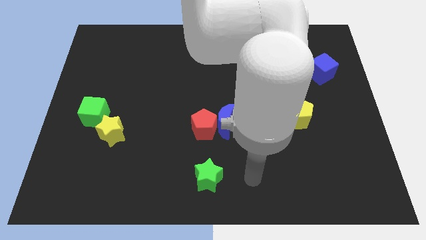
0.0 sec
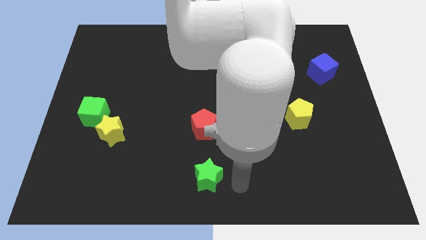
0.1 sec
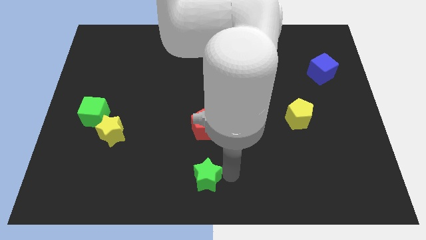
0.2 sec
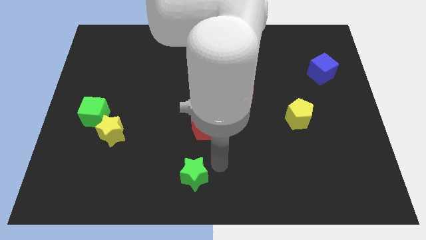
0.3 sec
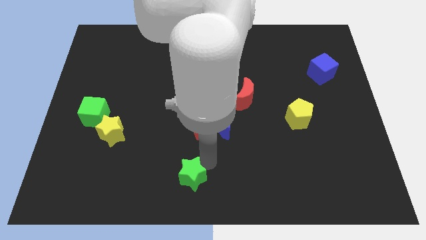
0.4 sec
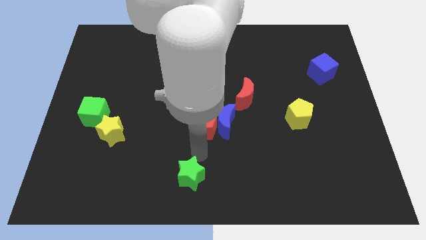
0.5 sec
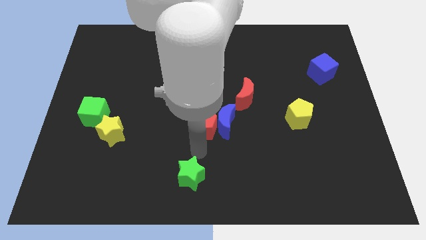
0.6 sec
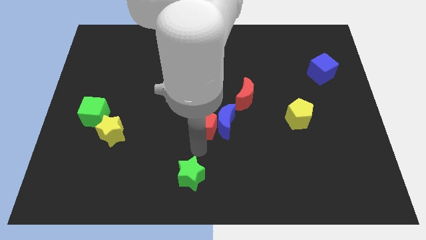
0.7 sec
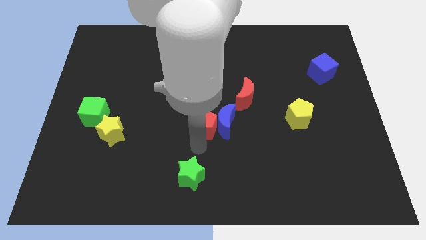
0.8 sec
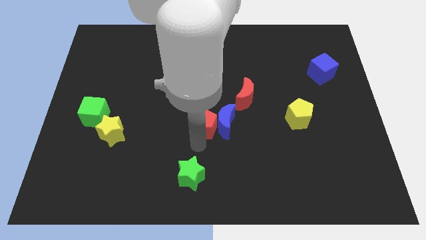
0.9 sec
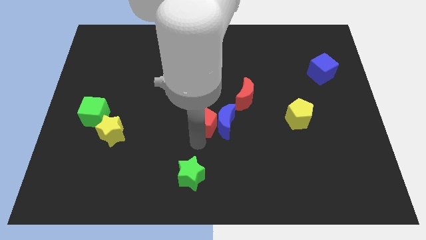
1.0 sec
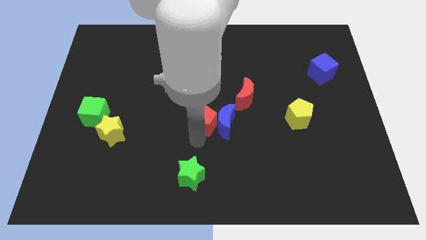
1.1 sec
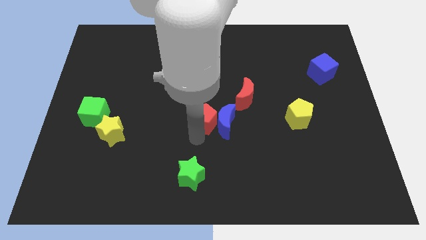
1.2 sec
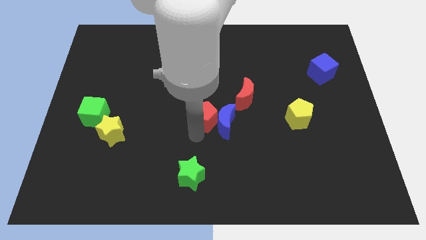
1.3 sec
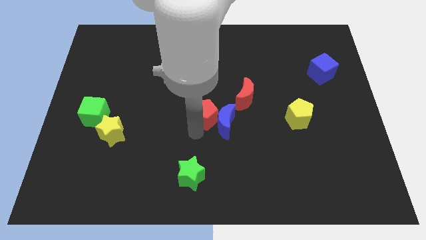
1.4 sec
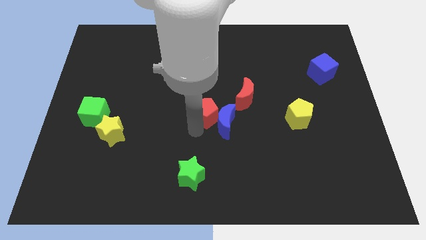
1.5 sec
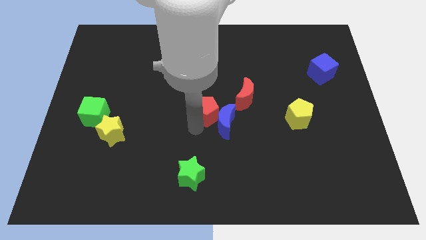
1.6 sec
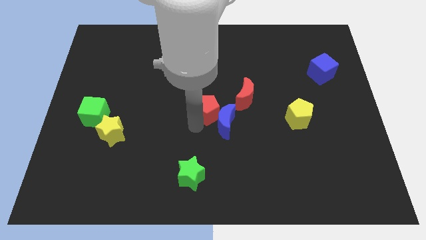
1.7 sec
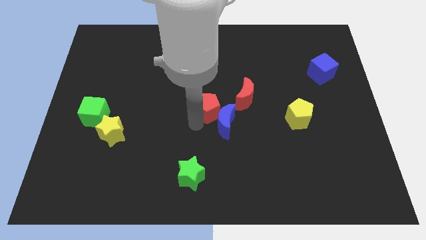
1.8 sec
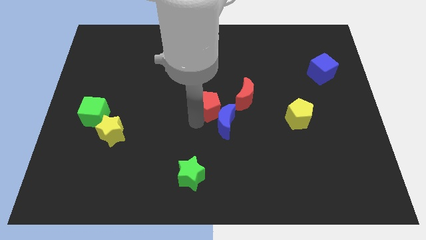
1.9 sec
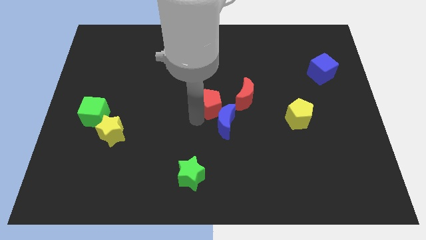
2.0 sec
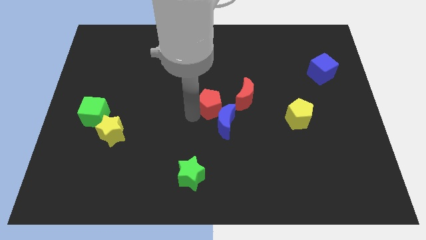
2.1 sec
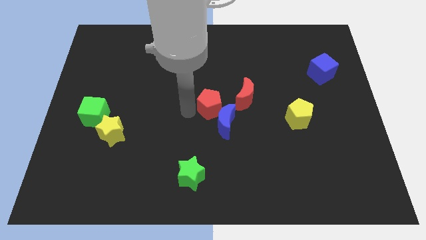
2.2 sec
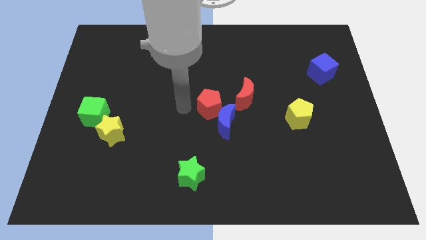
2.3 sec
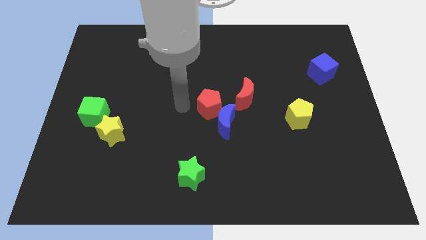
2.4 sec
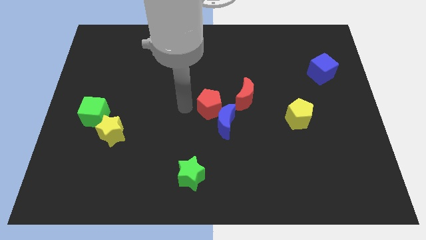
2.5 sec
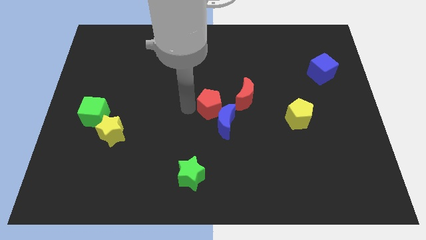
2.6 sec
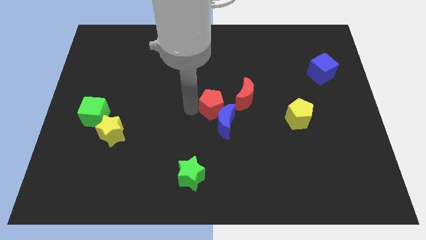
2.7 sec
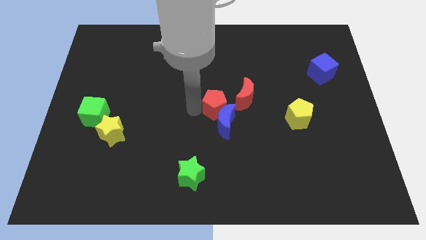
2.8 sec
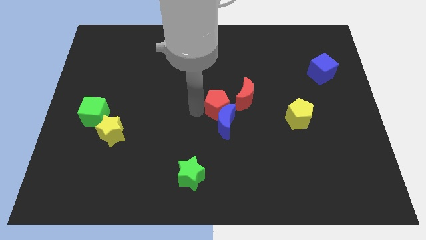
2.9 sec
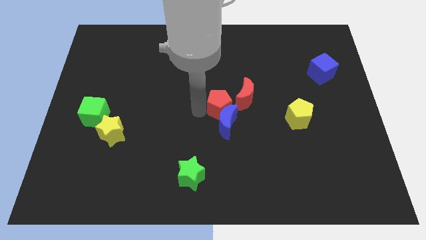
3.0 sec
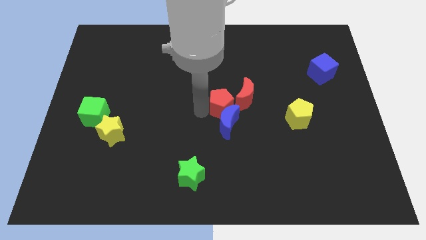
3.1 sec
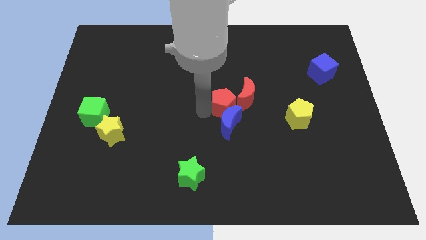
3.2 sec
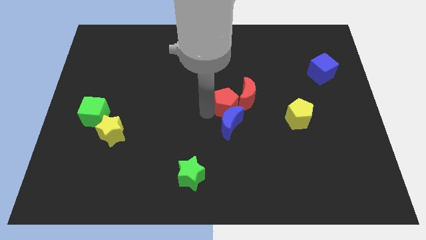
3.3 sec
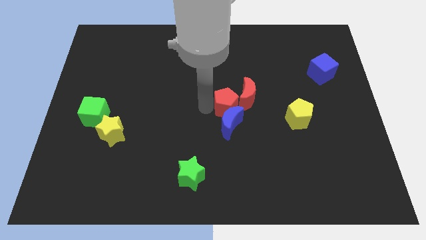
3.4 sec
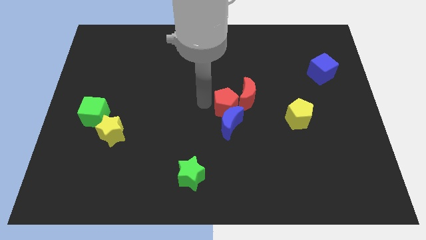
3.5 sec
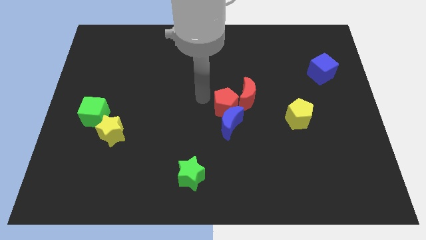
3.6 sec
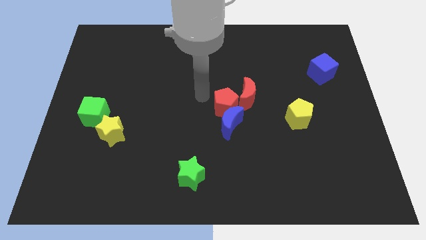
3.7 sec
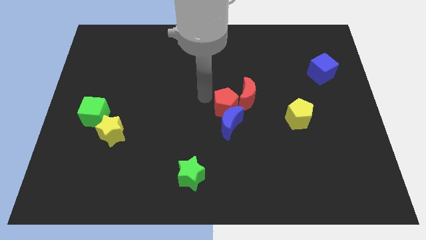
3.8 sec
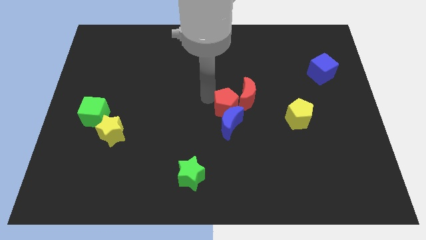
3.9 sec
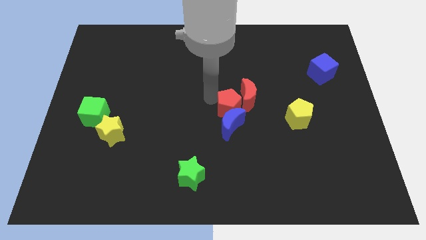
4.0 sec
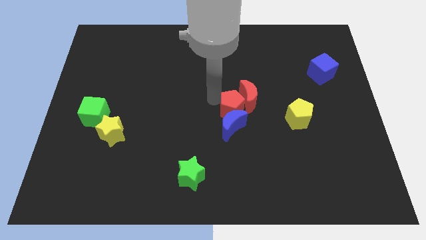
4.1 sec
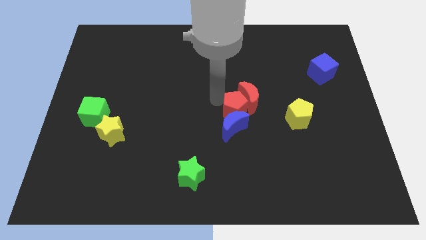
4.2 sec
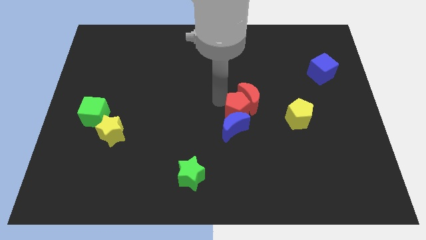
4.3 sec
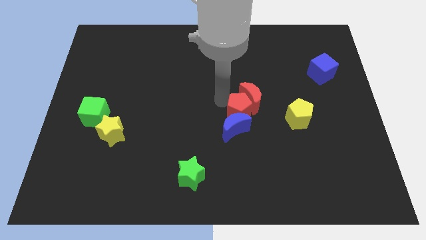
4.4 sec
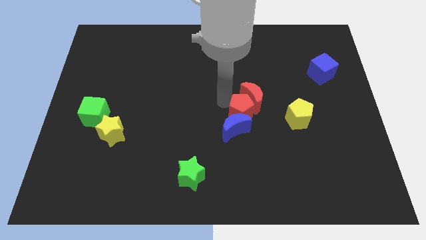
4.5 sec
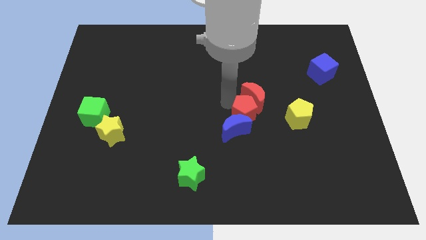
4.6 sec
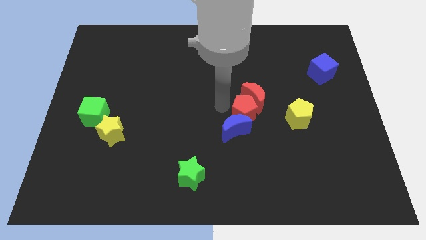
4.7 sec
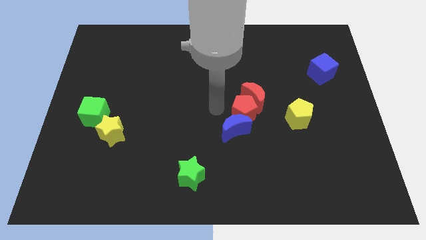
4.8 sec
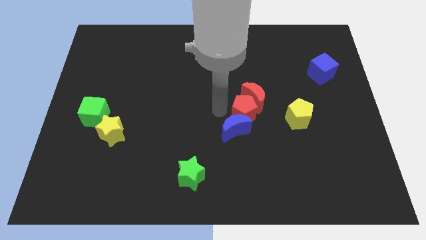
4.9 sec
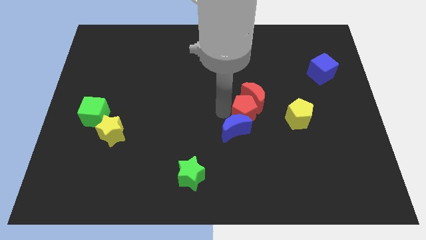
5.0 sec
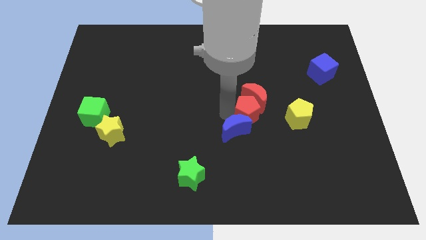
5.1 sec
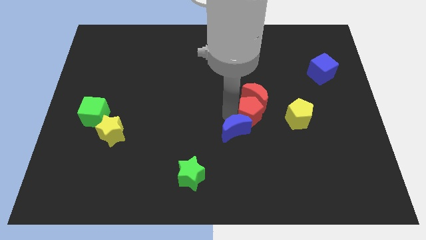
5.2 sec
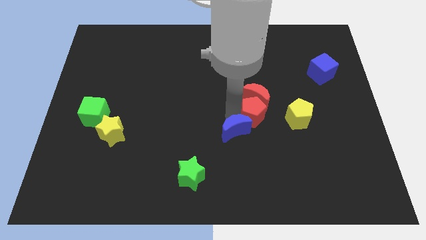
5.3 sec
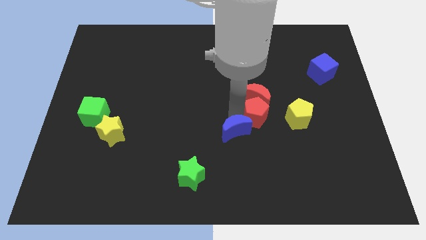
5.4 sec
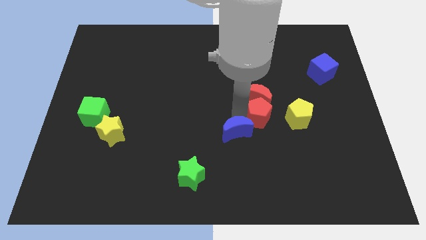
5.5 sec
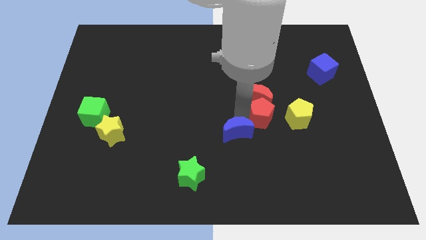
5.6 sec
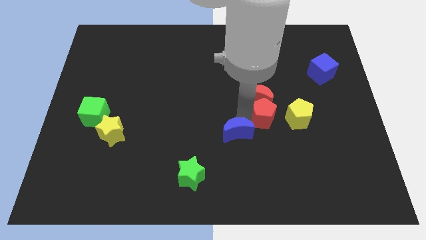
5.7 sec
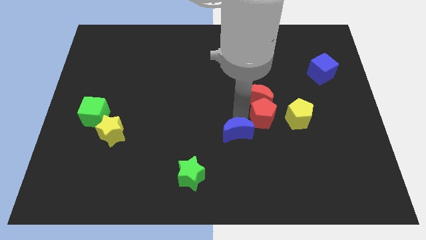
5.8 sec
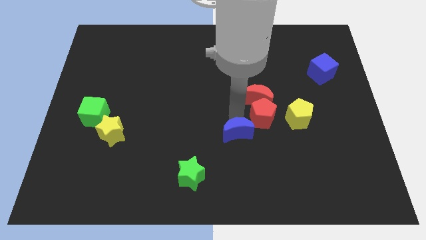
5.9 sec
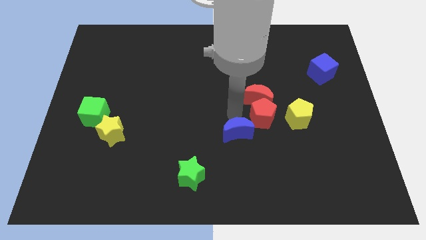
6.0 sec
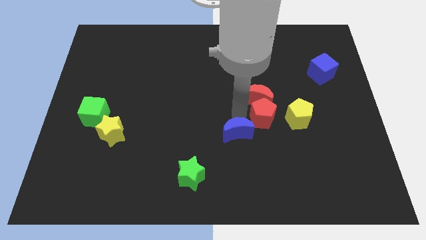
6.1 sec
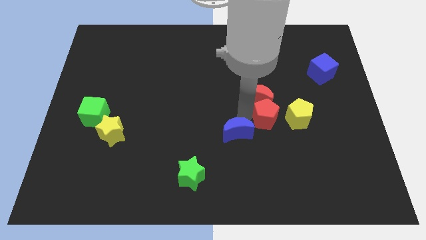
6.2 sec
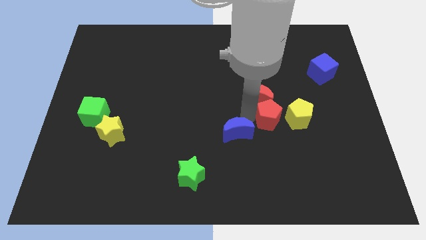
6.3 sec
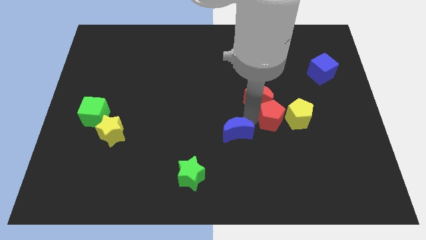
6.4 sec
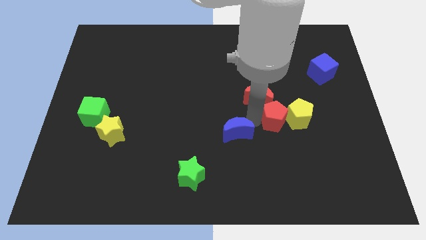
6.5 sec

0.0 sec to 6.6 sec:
move the red pentagon to the yellow pentagon
